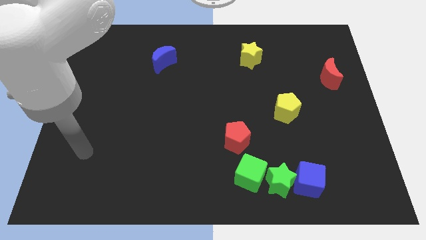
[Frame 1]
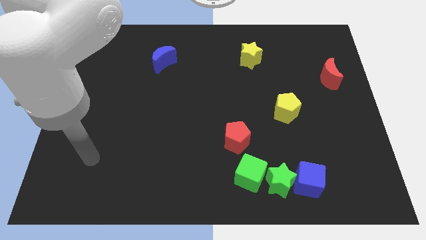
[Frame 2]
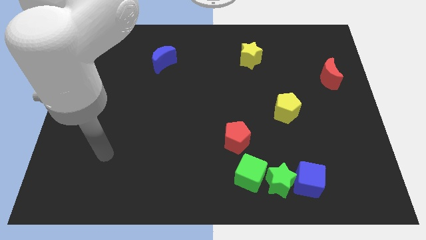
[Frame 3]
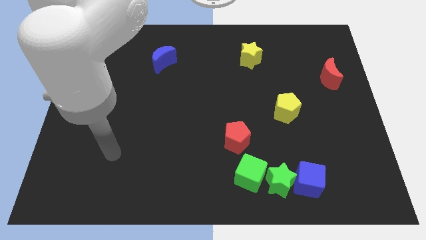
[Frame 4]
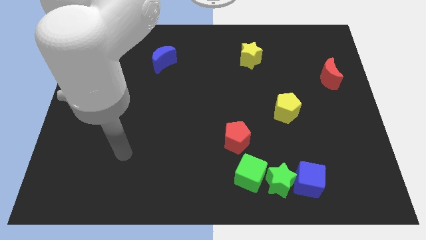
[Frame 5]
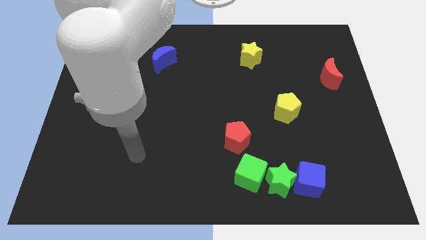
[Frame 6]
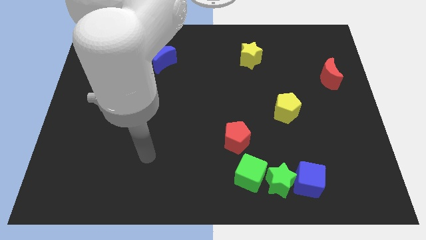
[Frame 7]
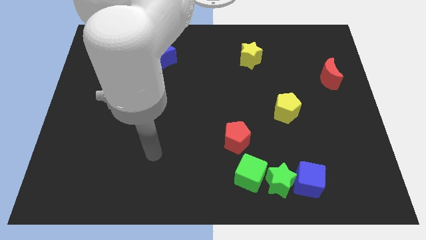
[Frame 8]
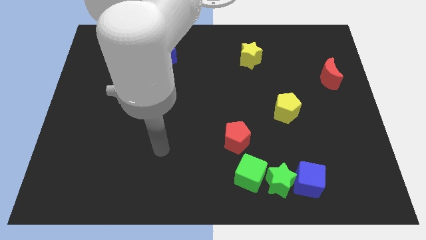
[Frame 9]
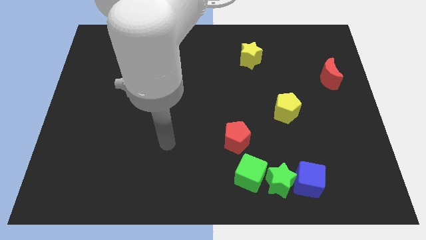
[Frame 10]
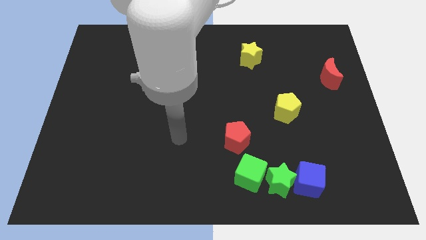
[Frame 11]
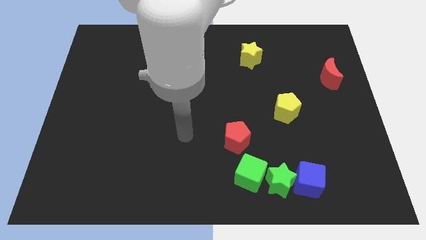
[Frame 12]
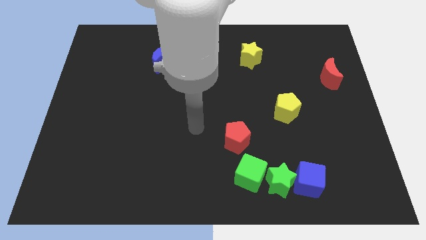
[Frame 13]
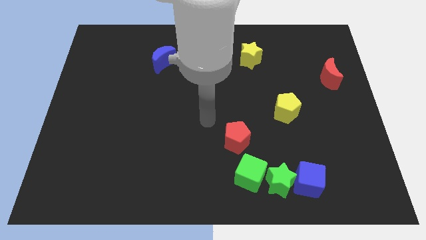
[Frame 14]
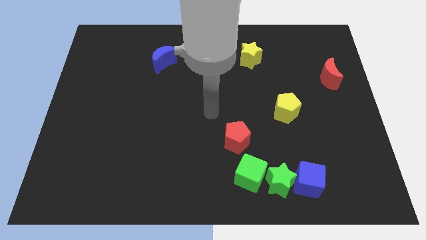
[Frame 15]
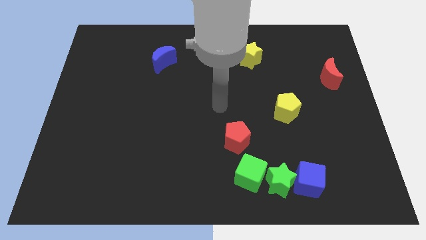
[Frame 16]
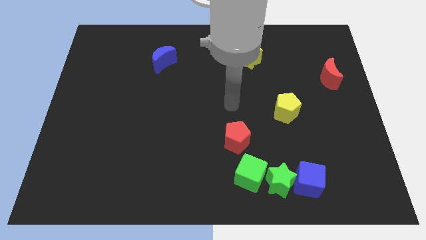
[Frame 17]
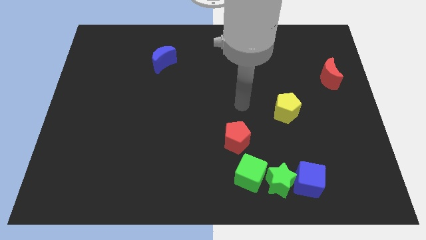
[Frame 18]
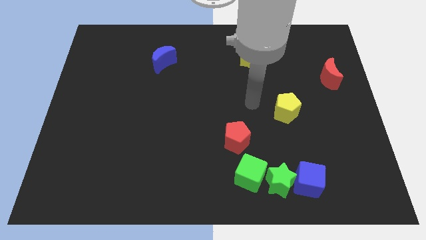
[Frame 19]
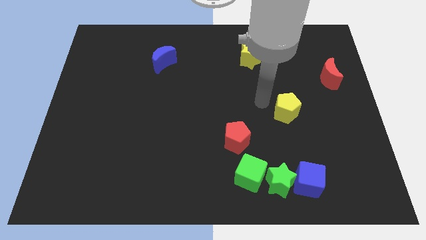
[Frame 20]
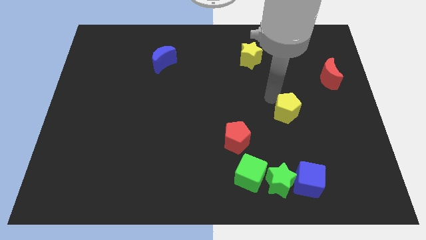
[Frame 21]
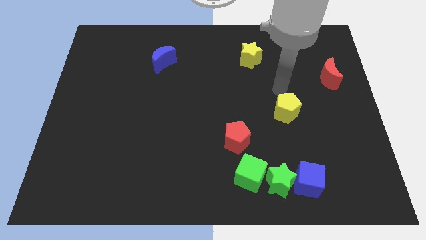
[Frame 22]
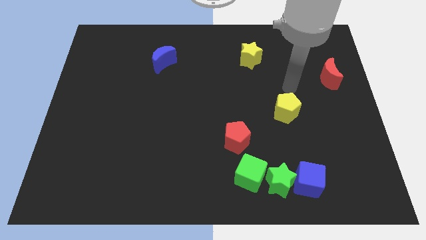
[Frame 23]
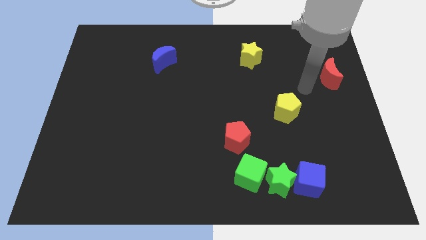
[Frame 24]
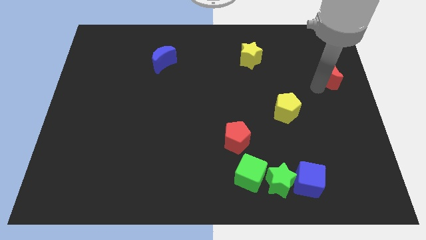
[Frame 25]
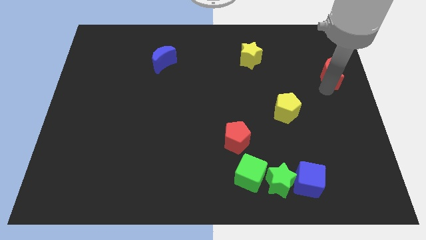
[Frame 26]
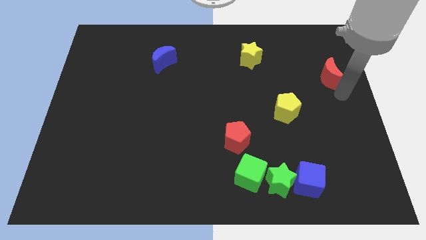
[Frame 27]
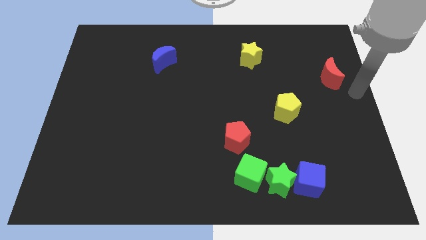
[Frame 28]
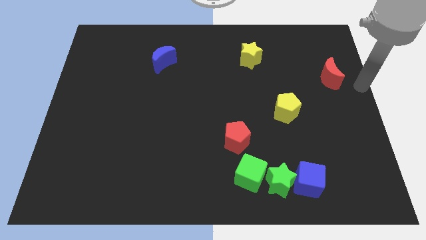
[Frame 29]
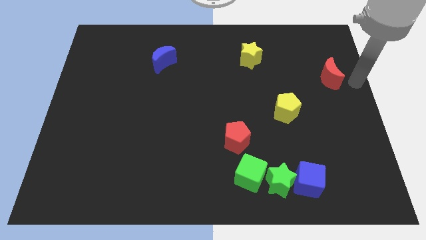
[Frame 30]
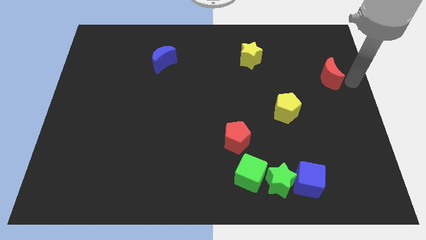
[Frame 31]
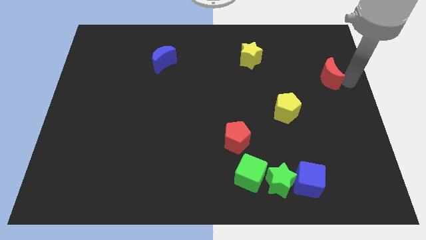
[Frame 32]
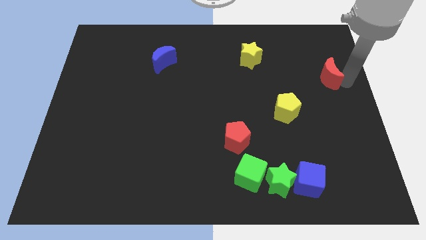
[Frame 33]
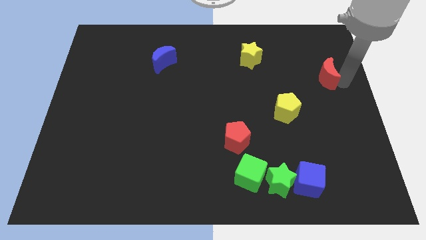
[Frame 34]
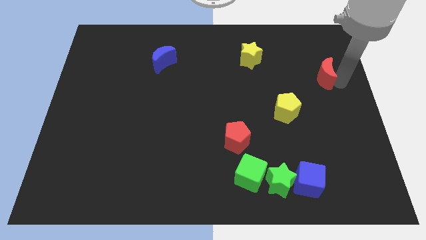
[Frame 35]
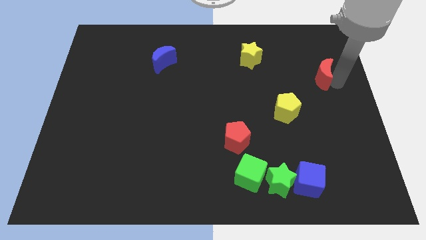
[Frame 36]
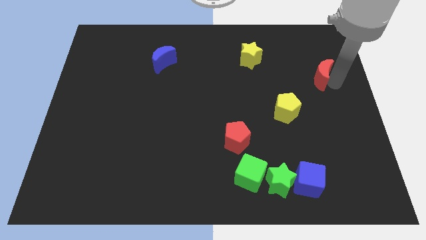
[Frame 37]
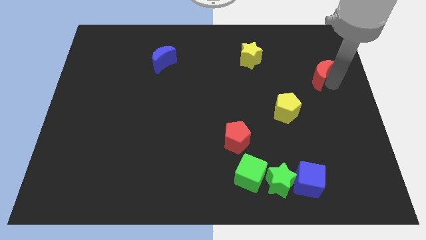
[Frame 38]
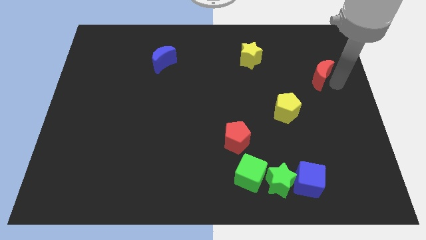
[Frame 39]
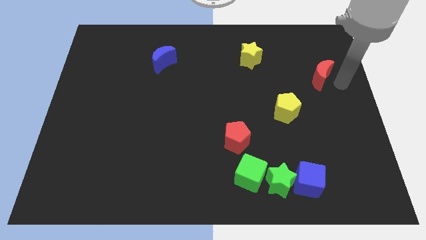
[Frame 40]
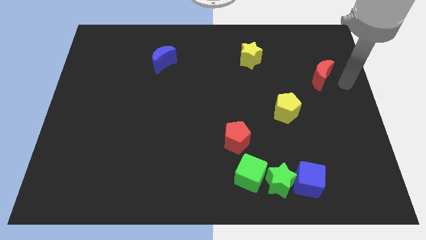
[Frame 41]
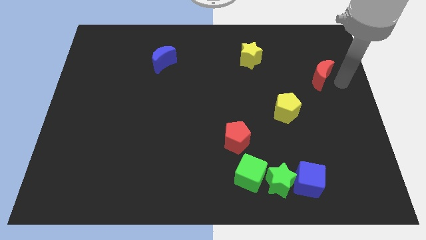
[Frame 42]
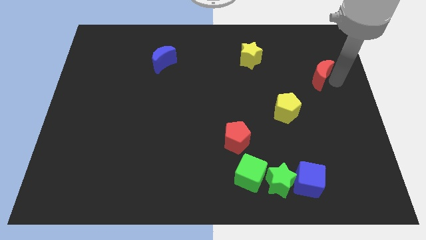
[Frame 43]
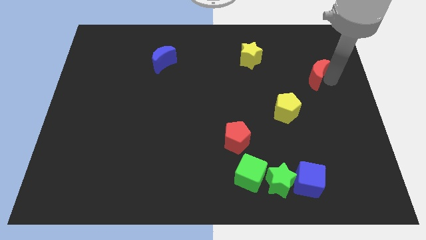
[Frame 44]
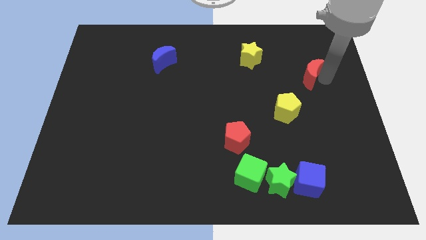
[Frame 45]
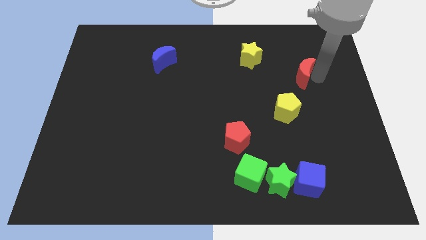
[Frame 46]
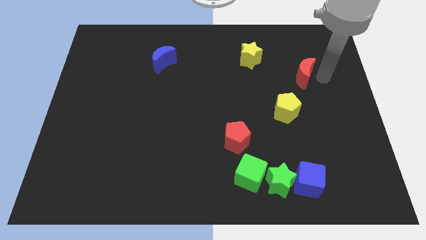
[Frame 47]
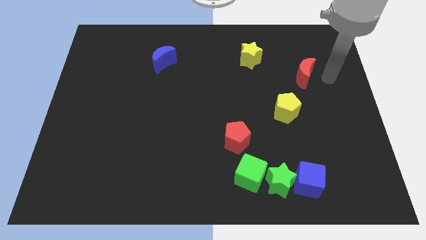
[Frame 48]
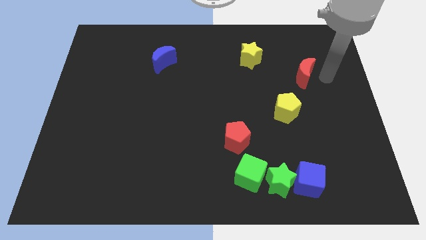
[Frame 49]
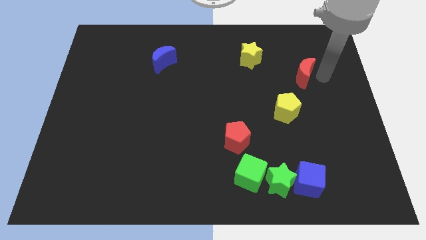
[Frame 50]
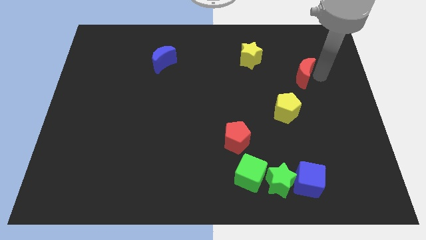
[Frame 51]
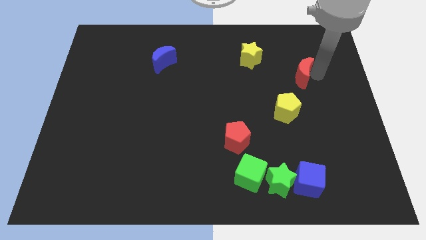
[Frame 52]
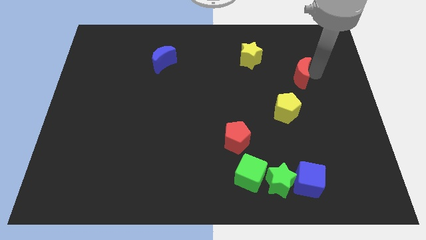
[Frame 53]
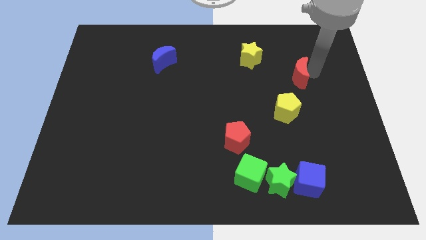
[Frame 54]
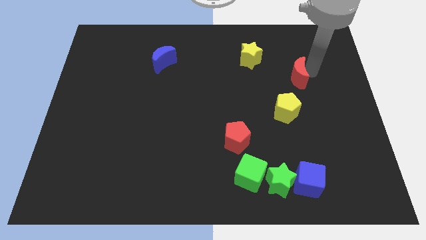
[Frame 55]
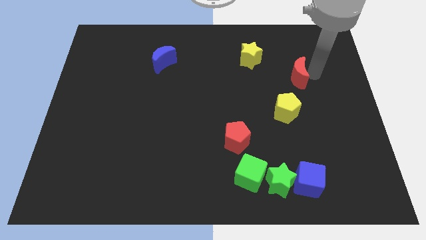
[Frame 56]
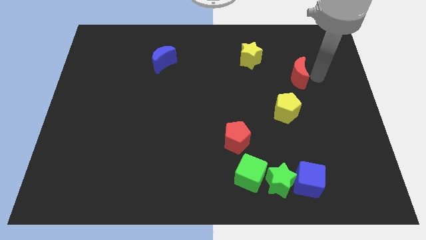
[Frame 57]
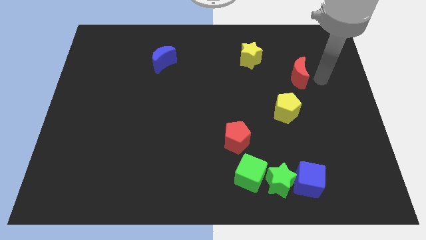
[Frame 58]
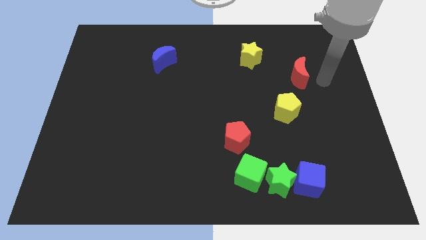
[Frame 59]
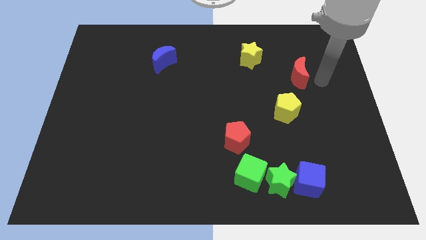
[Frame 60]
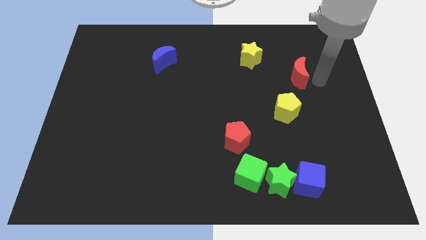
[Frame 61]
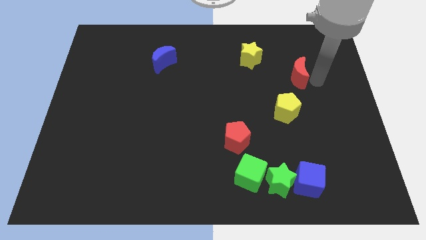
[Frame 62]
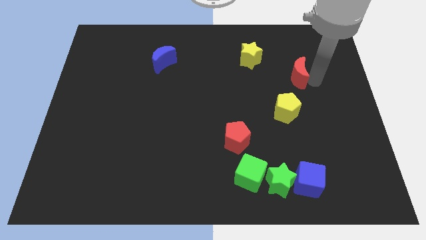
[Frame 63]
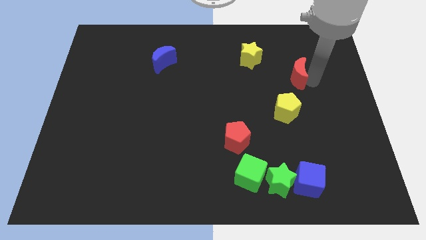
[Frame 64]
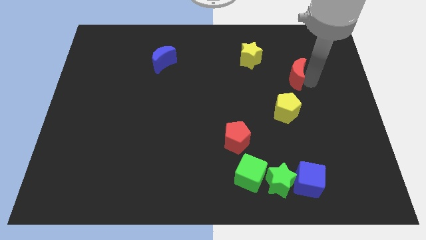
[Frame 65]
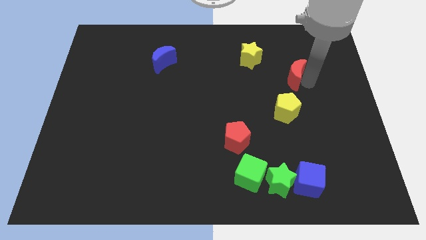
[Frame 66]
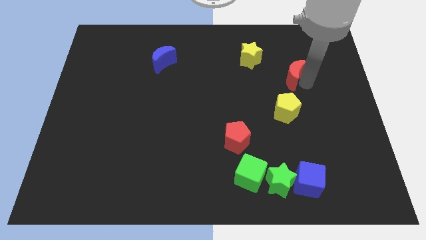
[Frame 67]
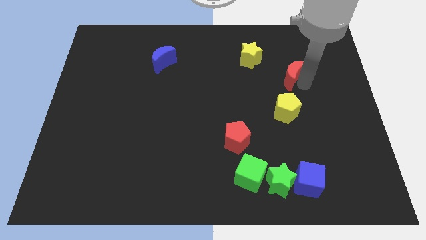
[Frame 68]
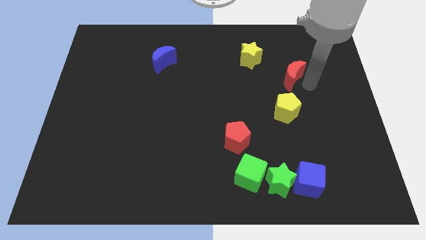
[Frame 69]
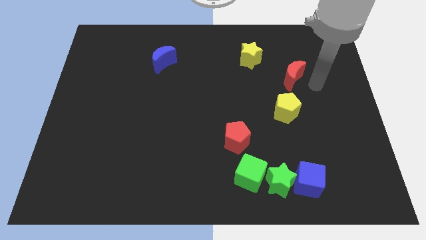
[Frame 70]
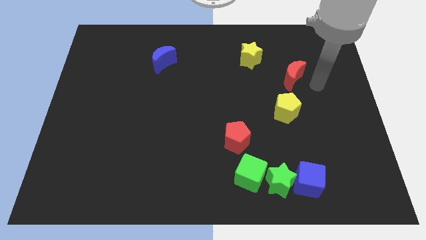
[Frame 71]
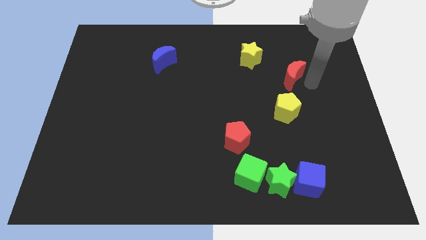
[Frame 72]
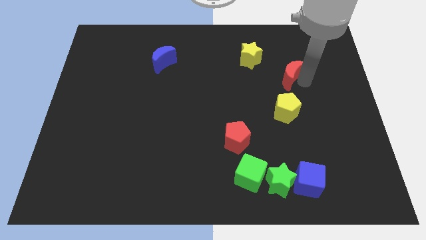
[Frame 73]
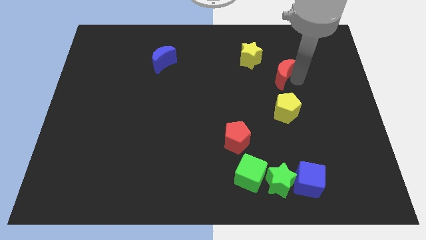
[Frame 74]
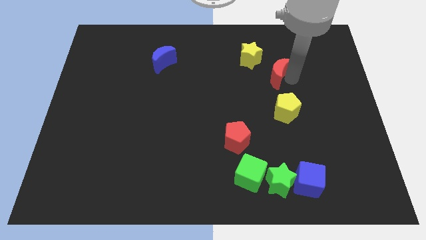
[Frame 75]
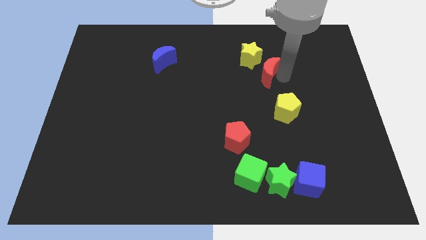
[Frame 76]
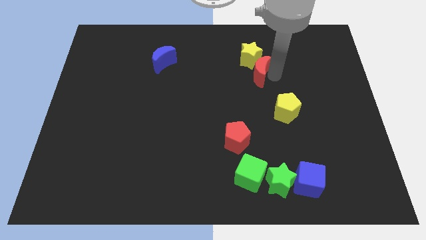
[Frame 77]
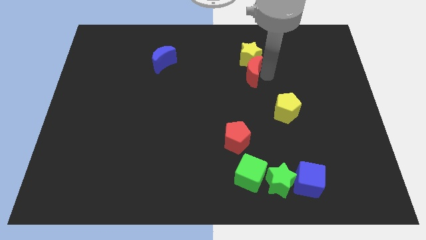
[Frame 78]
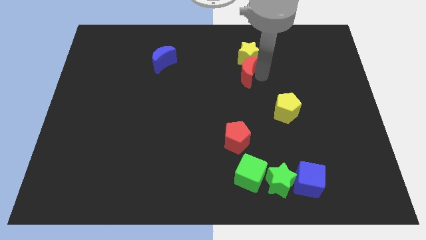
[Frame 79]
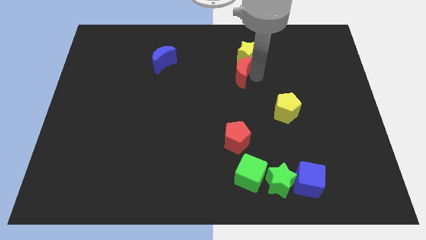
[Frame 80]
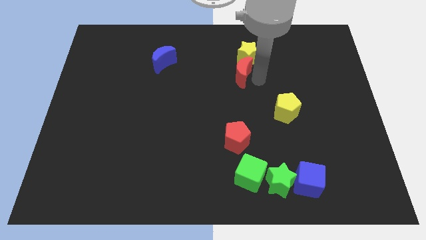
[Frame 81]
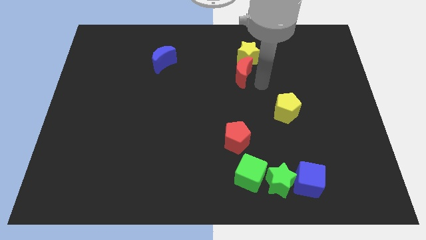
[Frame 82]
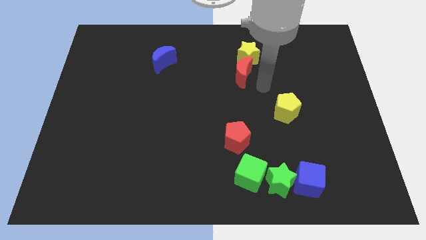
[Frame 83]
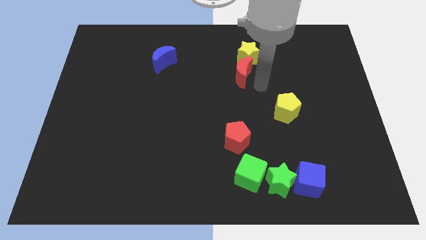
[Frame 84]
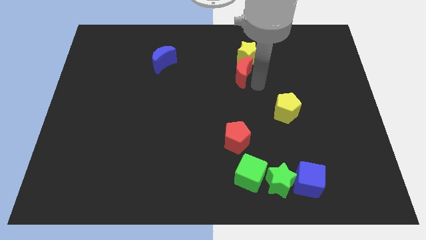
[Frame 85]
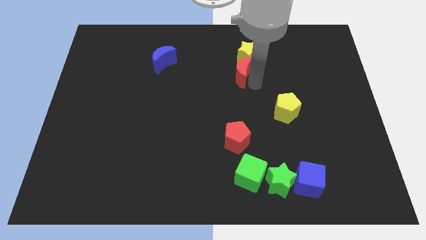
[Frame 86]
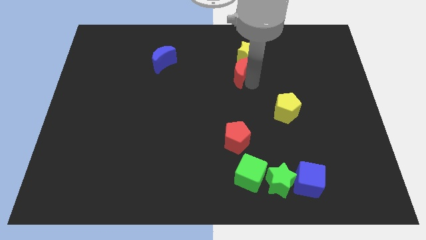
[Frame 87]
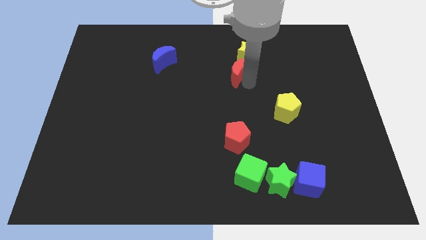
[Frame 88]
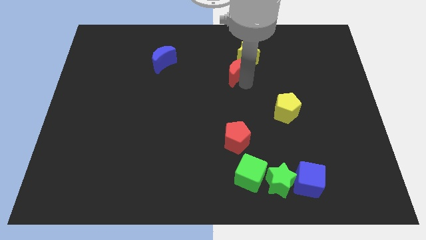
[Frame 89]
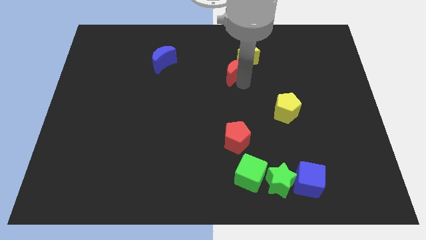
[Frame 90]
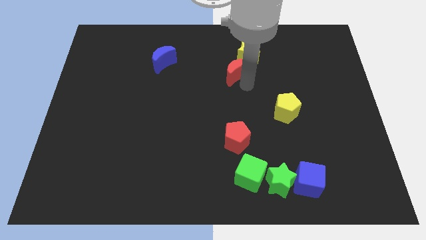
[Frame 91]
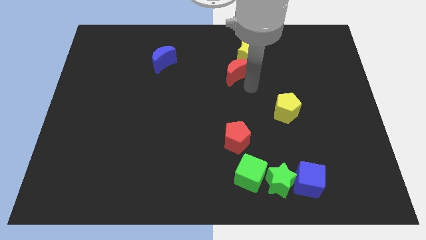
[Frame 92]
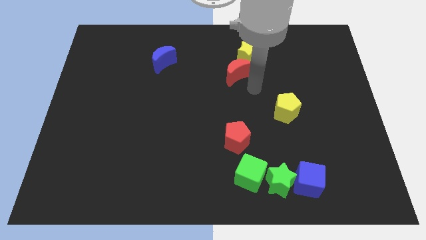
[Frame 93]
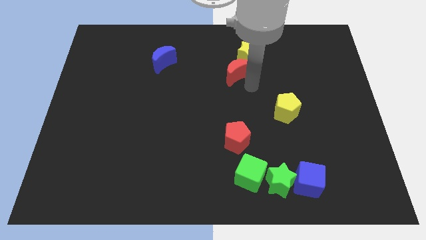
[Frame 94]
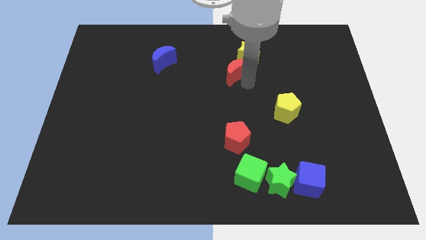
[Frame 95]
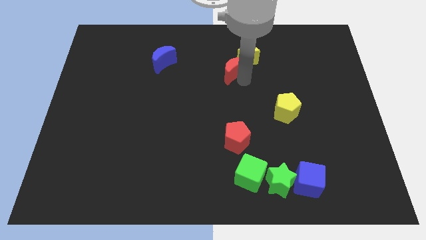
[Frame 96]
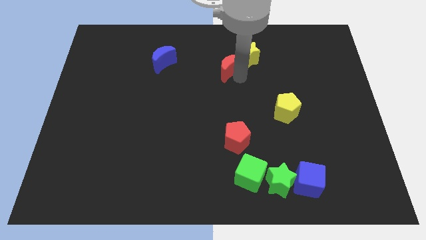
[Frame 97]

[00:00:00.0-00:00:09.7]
push the red moon just left of the yellow star
